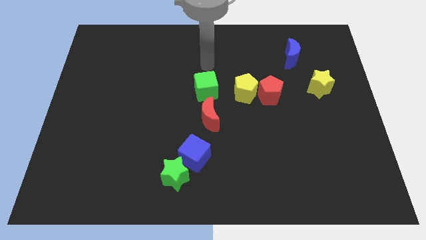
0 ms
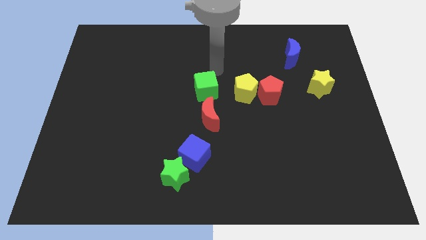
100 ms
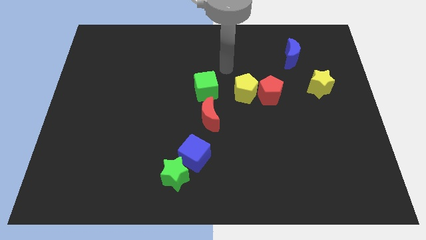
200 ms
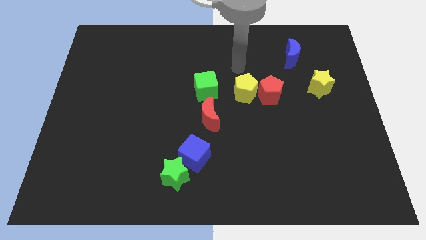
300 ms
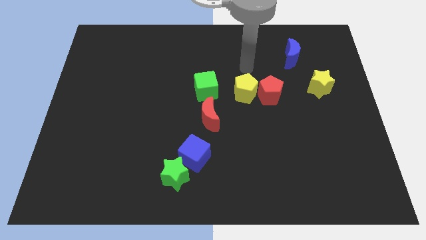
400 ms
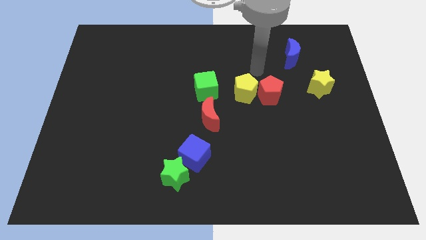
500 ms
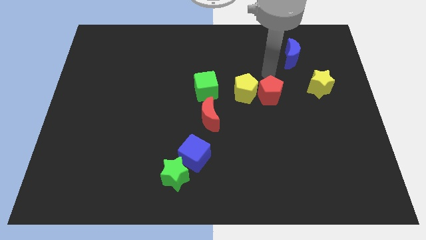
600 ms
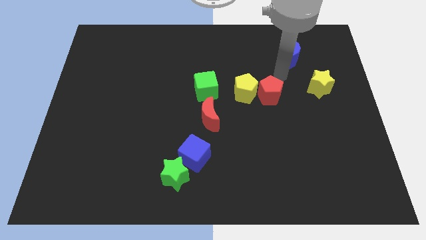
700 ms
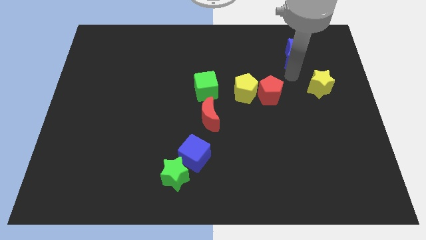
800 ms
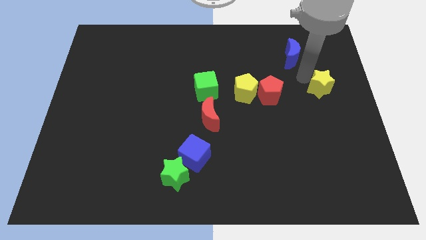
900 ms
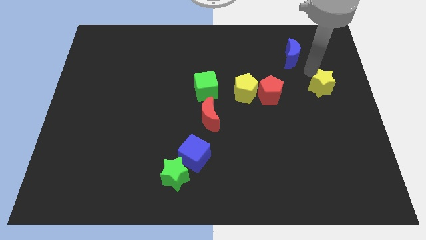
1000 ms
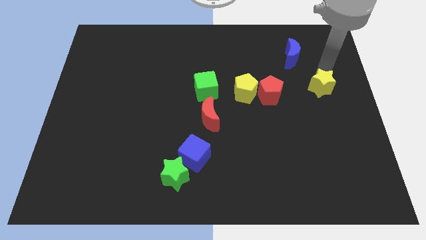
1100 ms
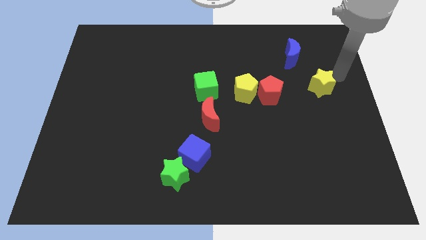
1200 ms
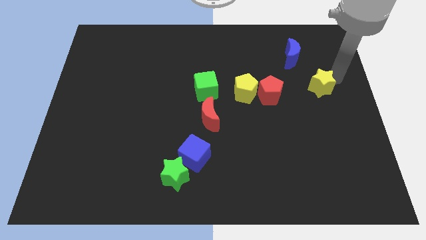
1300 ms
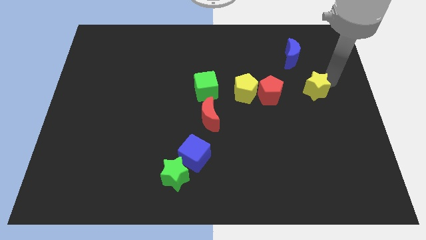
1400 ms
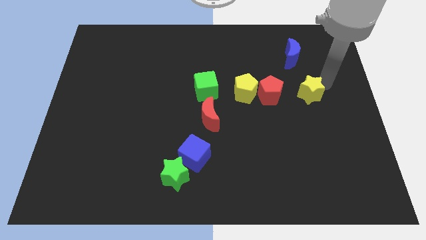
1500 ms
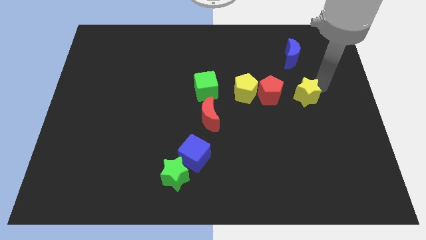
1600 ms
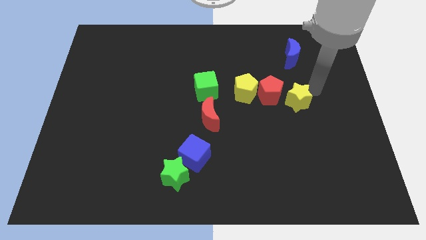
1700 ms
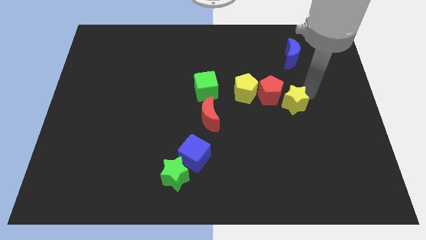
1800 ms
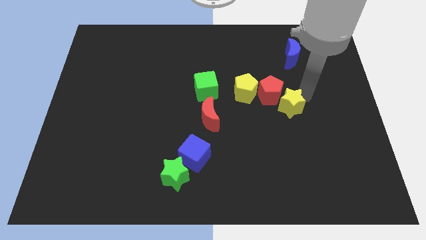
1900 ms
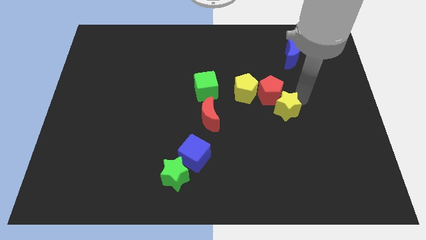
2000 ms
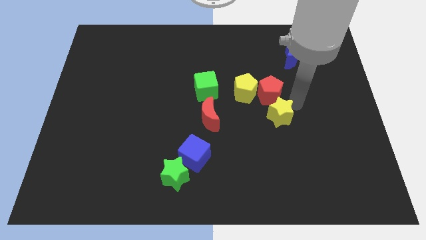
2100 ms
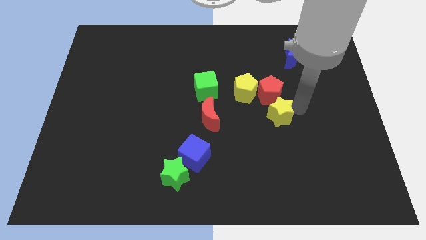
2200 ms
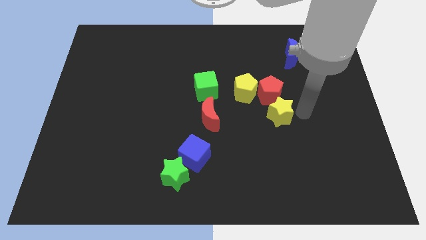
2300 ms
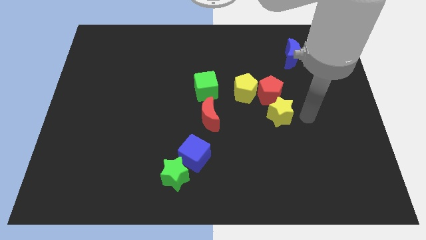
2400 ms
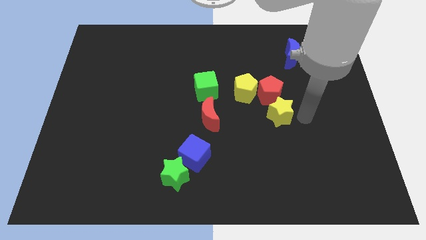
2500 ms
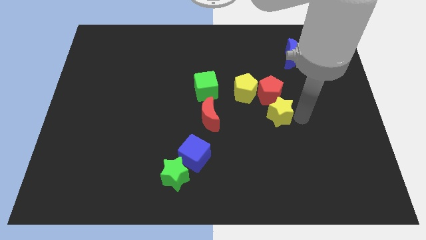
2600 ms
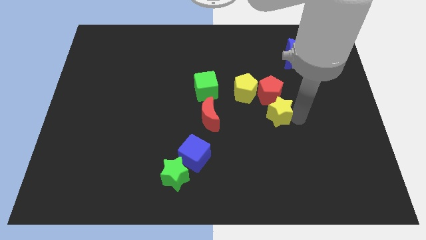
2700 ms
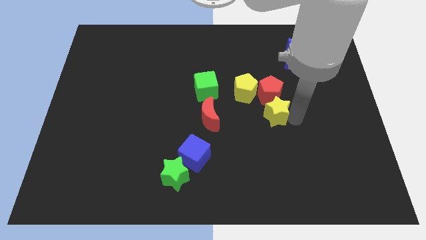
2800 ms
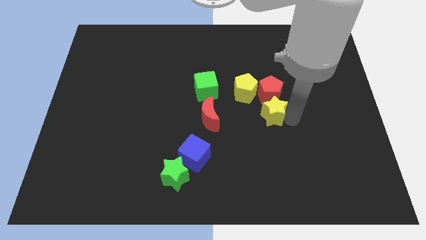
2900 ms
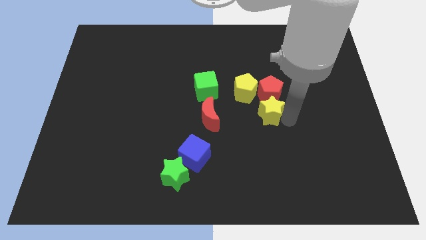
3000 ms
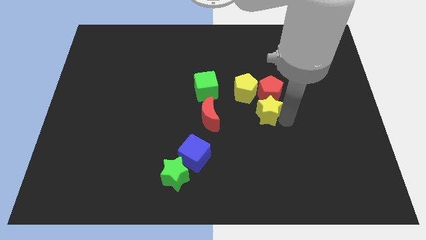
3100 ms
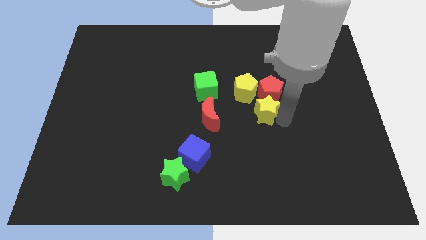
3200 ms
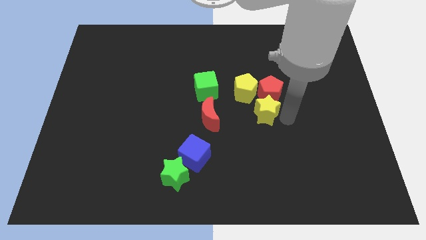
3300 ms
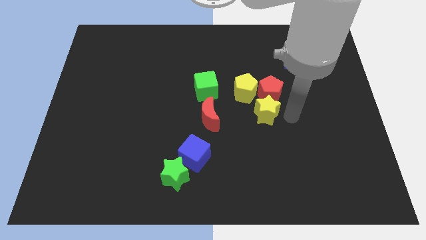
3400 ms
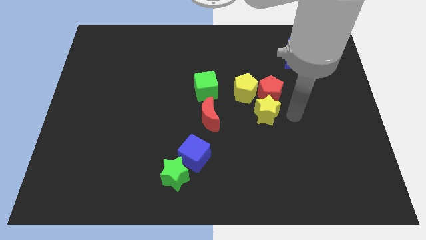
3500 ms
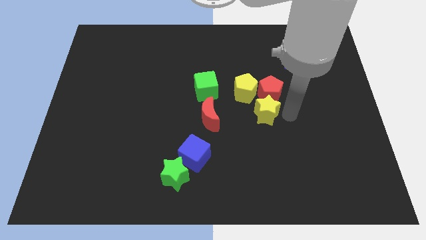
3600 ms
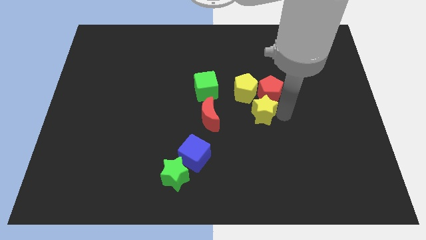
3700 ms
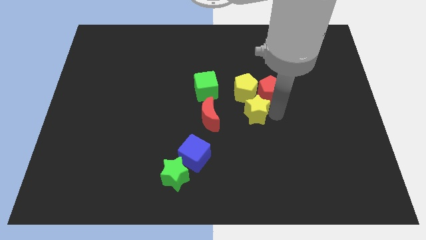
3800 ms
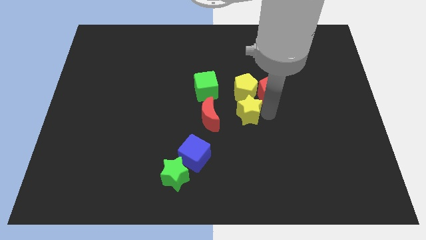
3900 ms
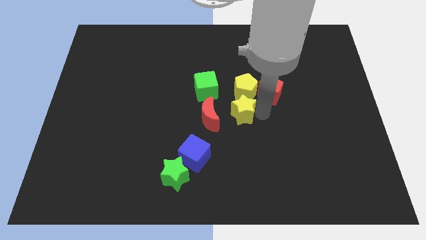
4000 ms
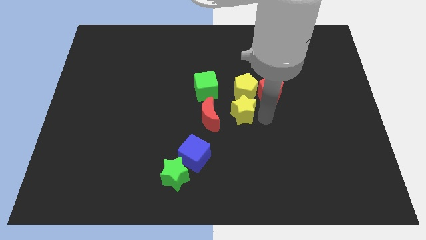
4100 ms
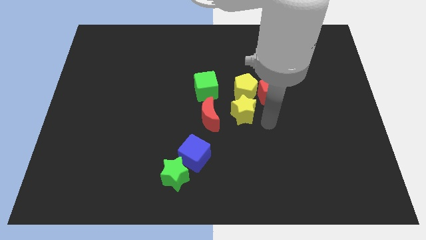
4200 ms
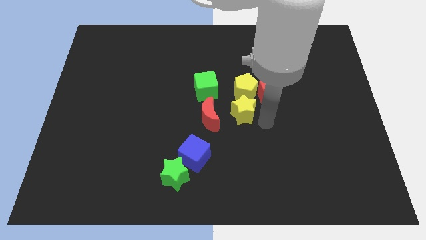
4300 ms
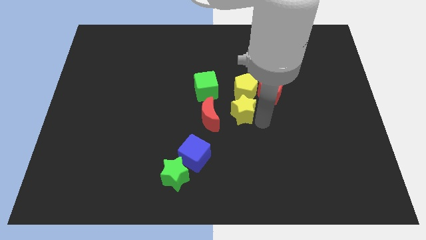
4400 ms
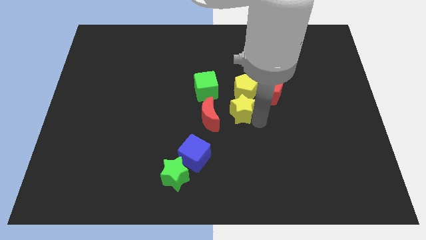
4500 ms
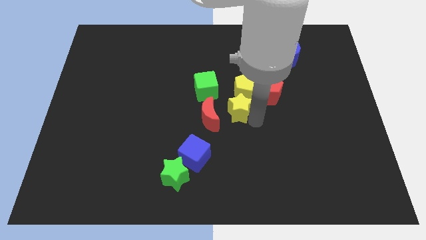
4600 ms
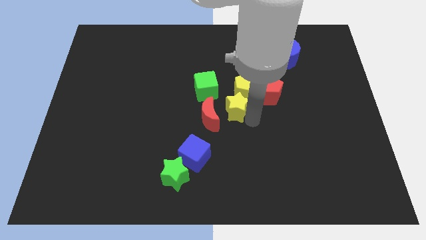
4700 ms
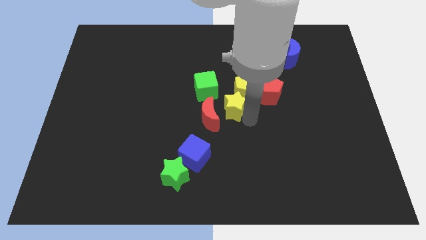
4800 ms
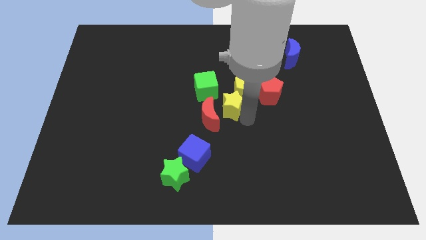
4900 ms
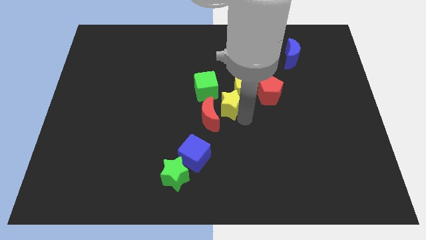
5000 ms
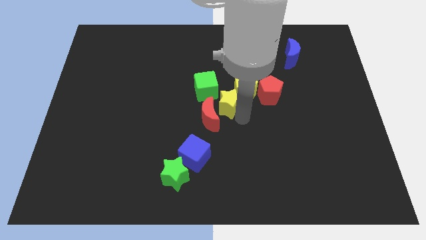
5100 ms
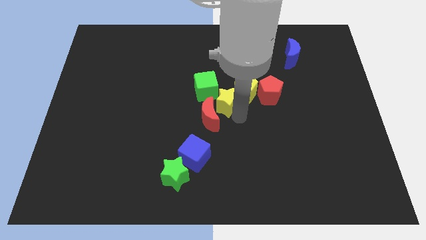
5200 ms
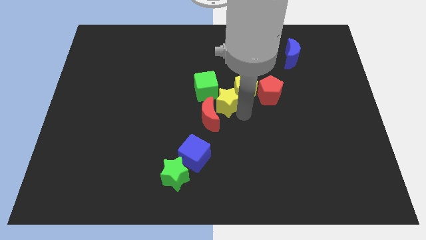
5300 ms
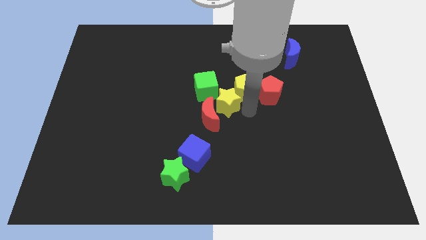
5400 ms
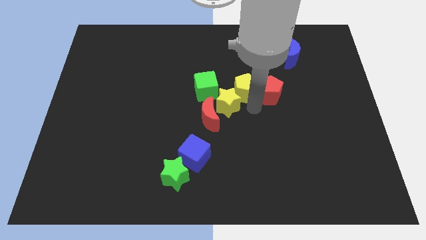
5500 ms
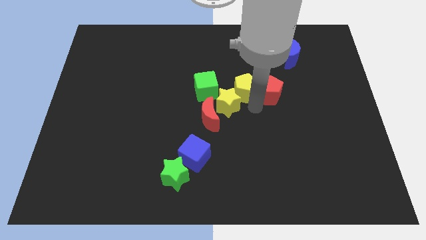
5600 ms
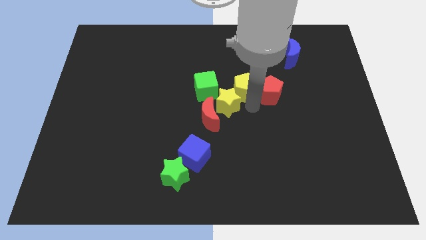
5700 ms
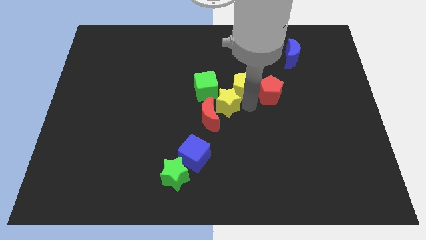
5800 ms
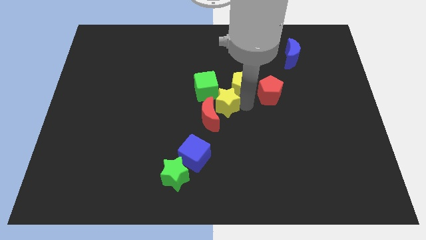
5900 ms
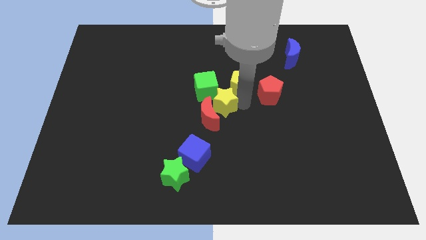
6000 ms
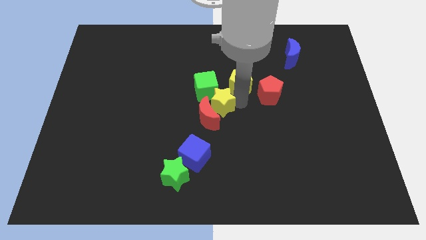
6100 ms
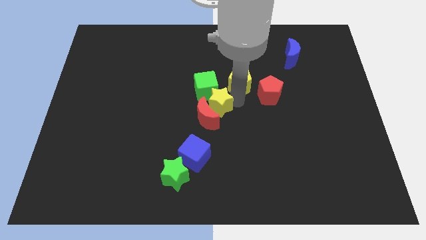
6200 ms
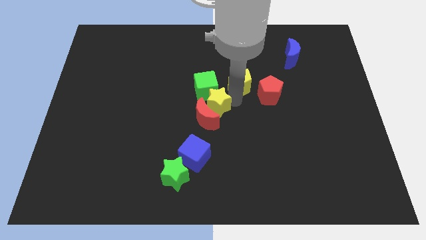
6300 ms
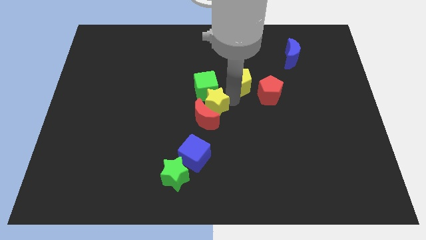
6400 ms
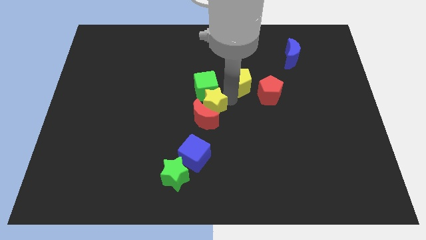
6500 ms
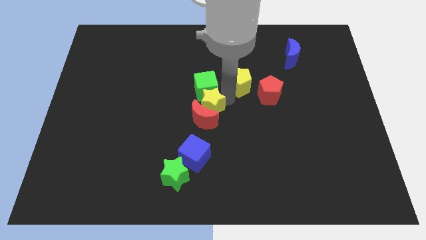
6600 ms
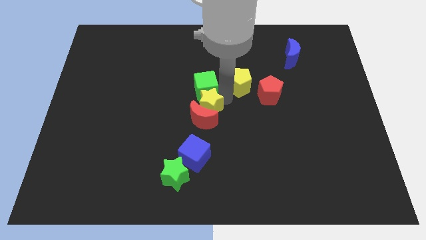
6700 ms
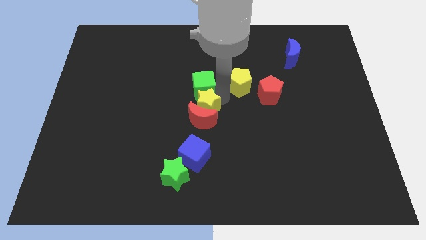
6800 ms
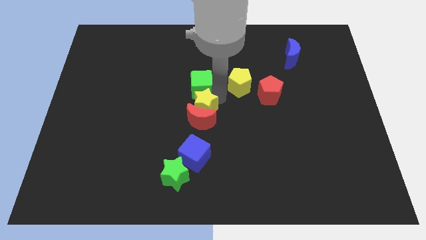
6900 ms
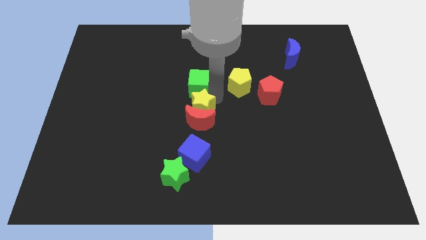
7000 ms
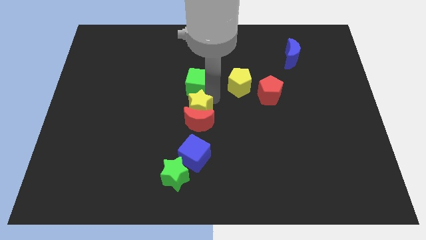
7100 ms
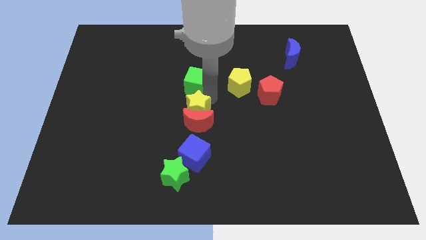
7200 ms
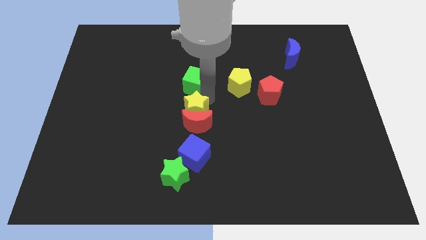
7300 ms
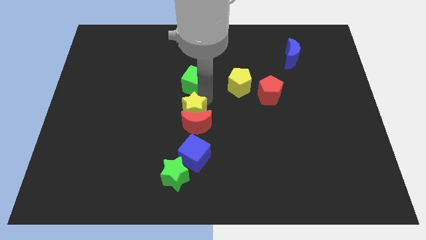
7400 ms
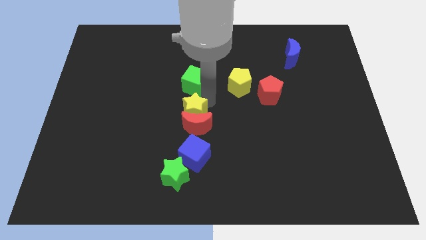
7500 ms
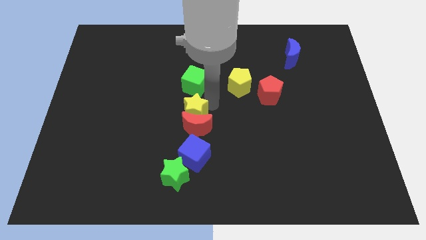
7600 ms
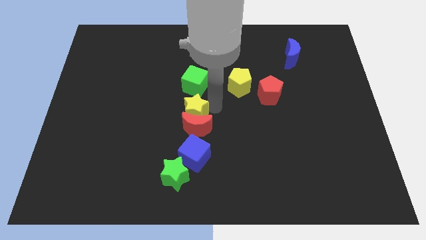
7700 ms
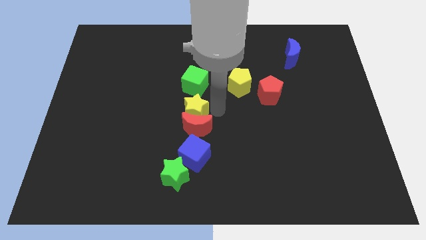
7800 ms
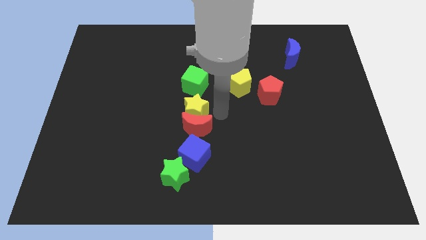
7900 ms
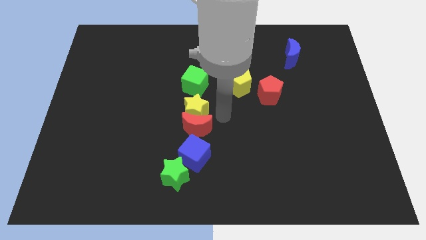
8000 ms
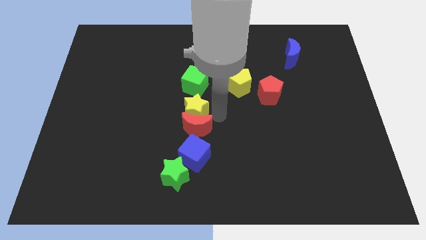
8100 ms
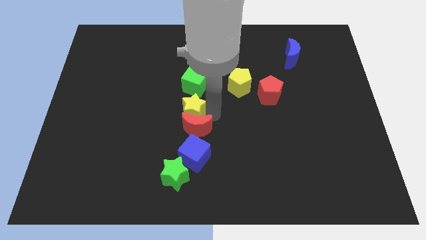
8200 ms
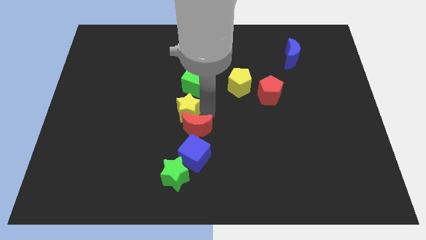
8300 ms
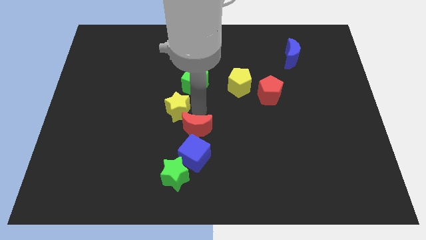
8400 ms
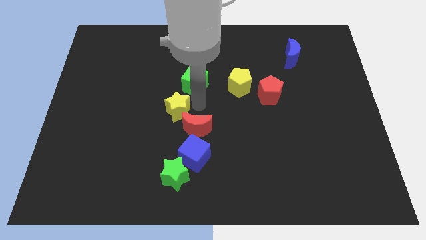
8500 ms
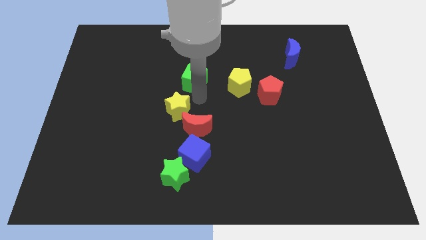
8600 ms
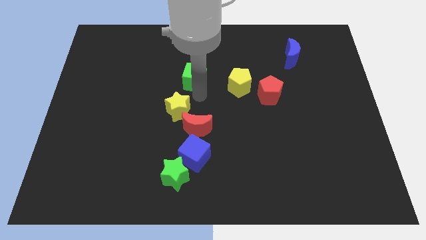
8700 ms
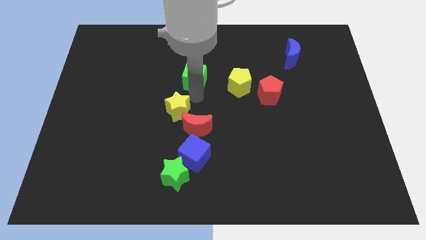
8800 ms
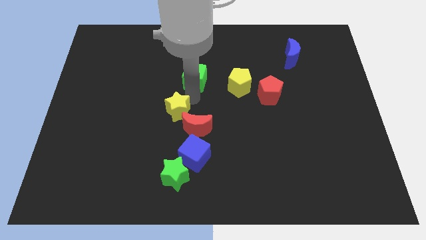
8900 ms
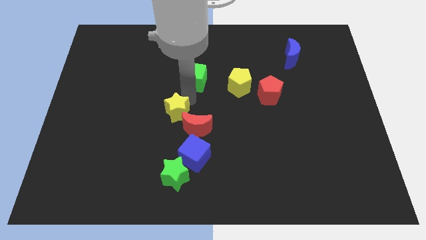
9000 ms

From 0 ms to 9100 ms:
push the yellow star left of the red moon
